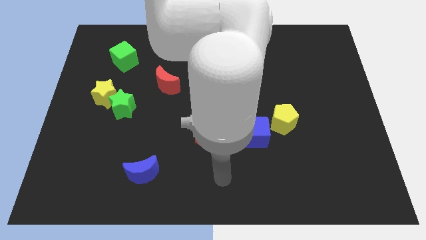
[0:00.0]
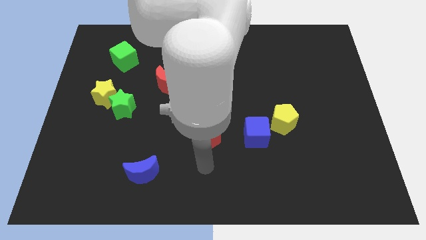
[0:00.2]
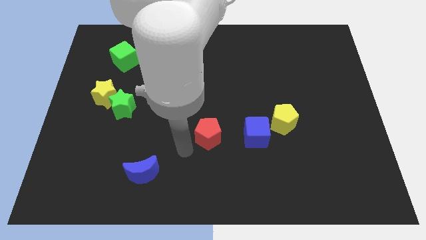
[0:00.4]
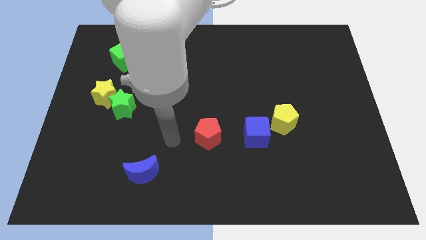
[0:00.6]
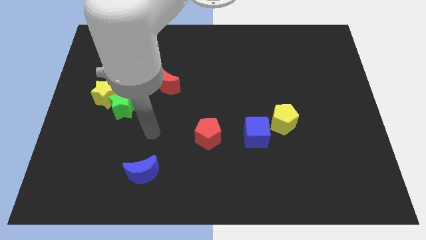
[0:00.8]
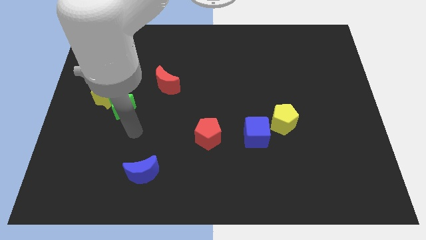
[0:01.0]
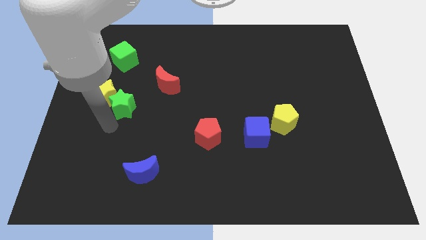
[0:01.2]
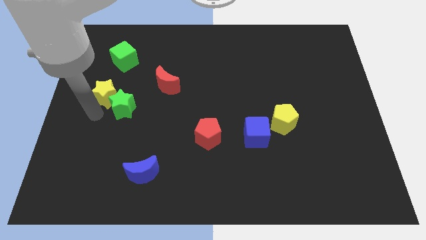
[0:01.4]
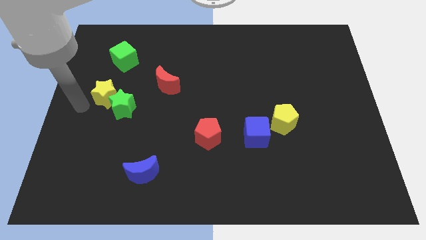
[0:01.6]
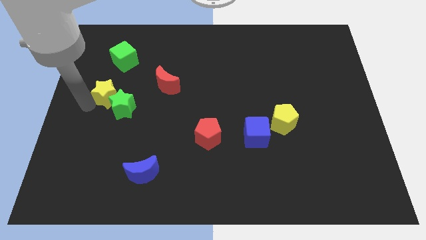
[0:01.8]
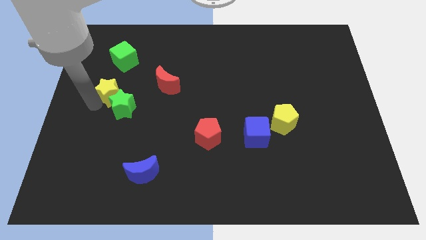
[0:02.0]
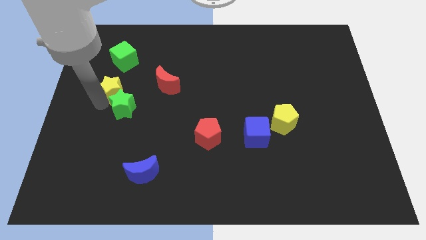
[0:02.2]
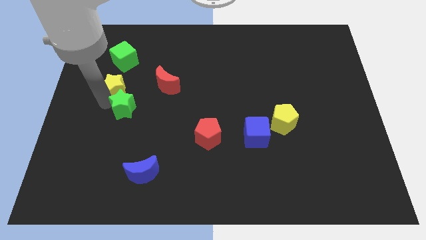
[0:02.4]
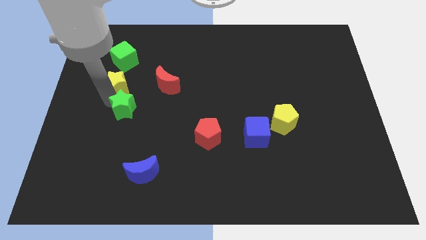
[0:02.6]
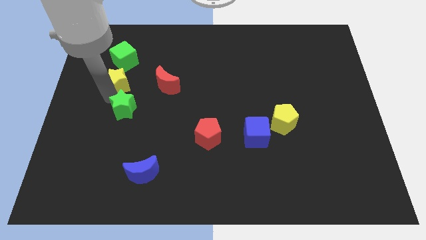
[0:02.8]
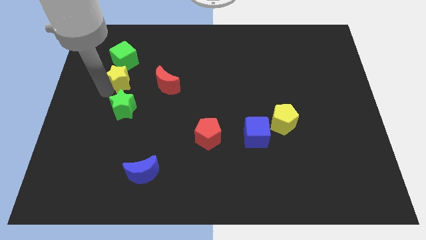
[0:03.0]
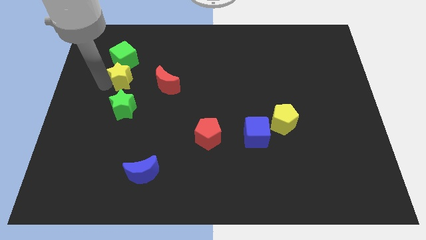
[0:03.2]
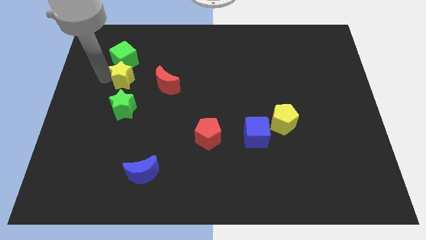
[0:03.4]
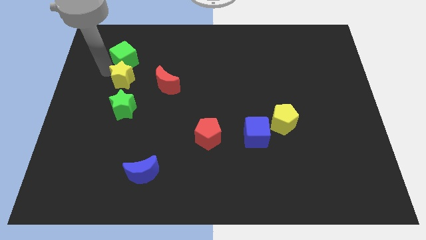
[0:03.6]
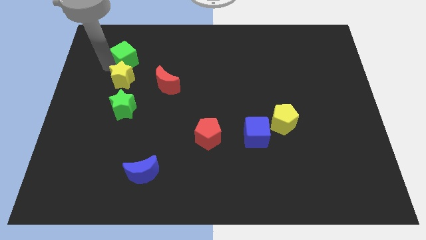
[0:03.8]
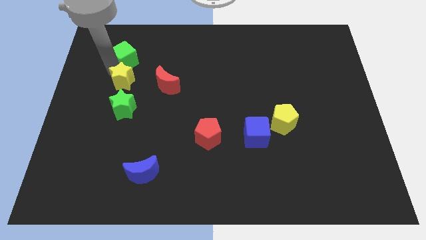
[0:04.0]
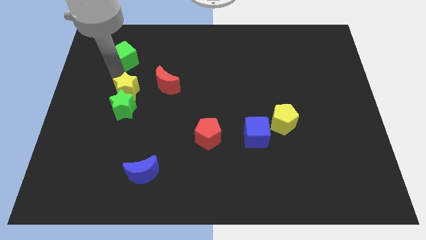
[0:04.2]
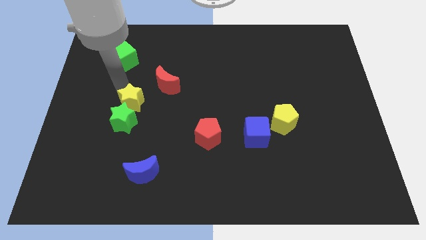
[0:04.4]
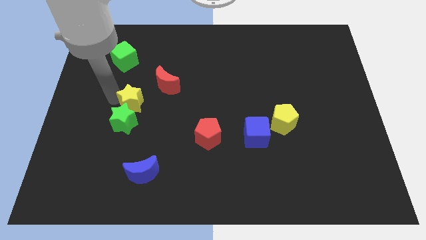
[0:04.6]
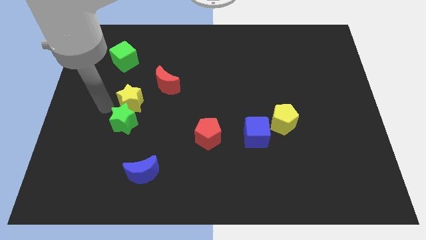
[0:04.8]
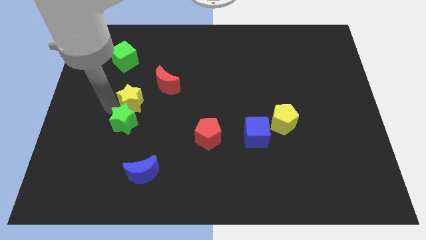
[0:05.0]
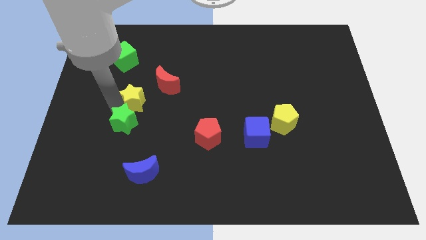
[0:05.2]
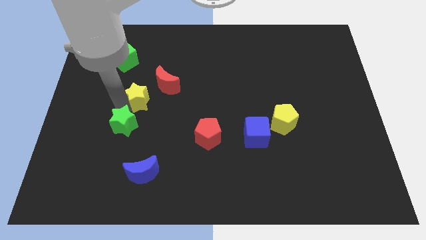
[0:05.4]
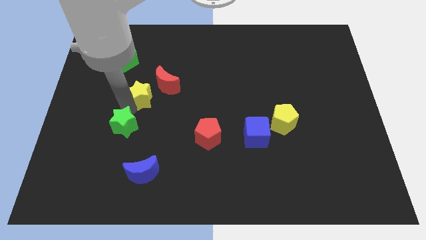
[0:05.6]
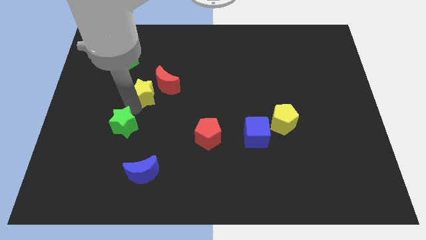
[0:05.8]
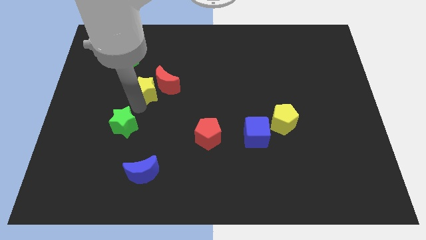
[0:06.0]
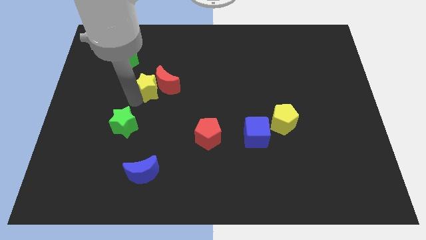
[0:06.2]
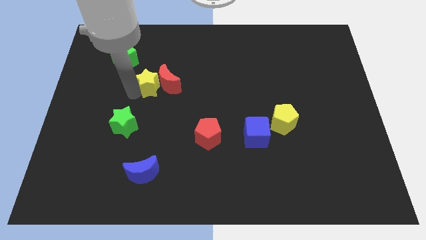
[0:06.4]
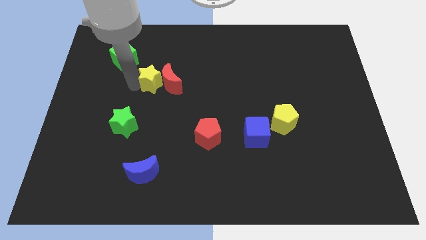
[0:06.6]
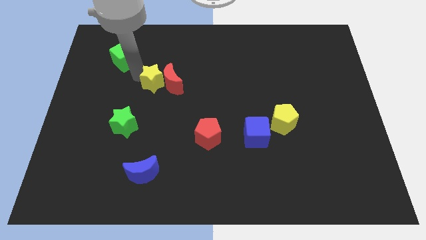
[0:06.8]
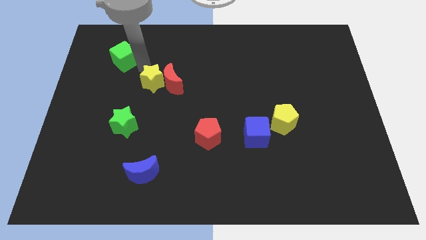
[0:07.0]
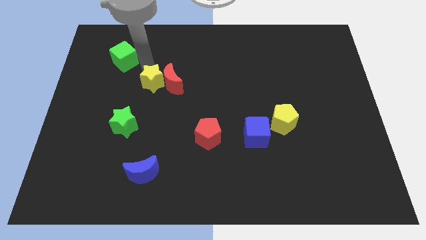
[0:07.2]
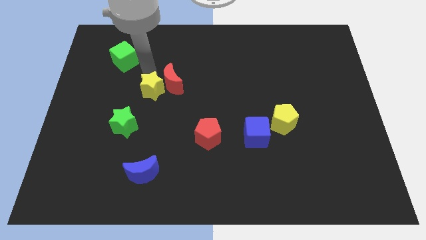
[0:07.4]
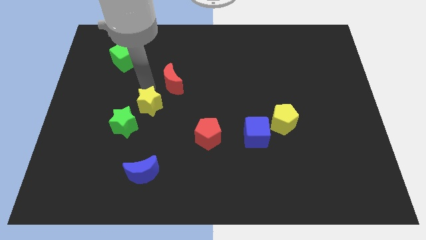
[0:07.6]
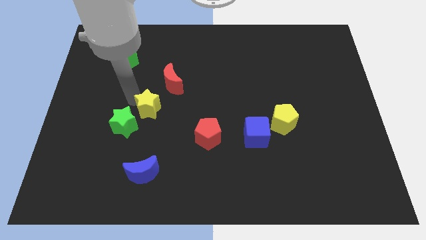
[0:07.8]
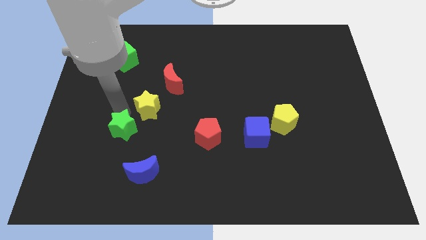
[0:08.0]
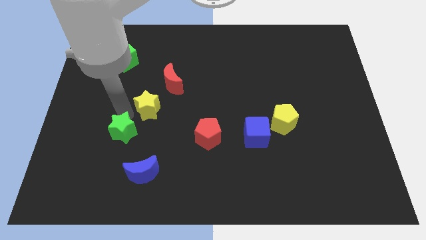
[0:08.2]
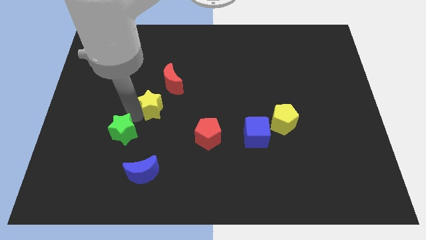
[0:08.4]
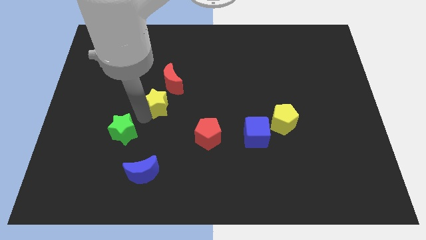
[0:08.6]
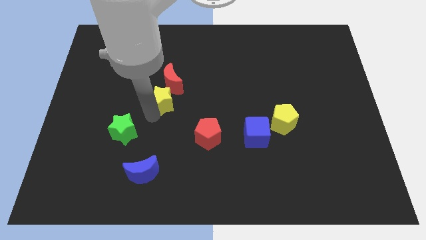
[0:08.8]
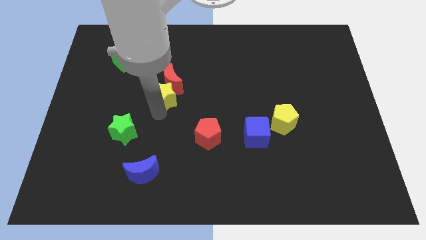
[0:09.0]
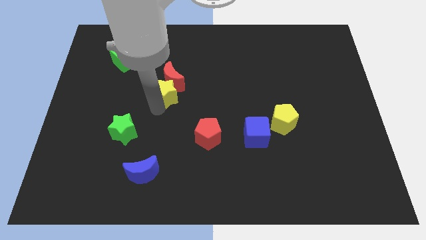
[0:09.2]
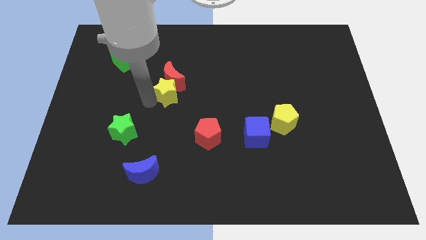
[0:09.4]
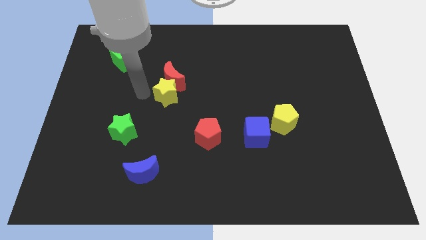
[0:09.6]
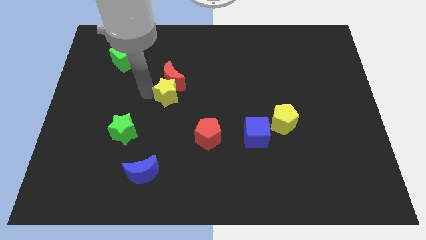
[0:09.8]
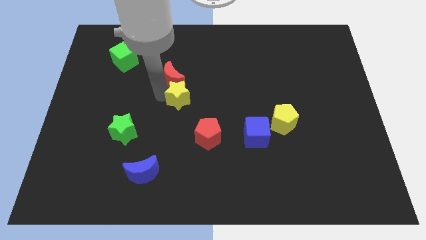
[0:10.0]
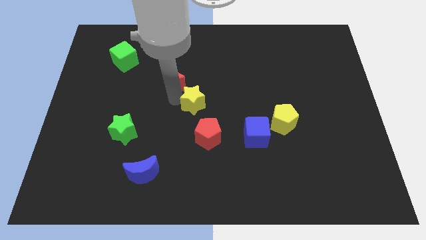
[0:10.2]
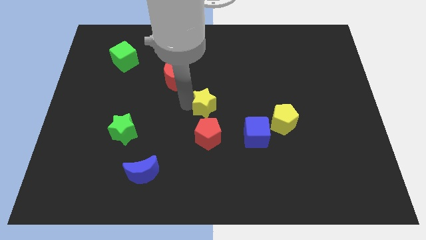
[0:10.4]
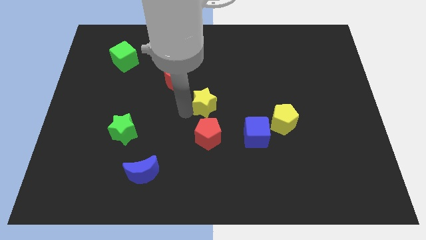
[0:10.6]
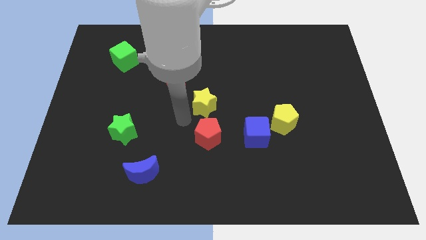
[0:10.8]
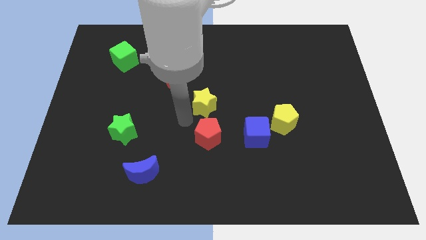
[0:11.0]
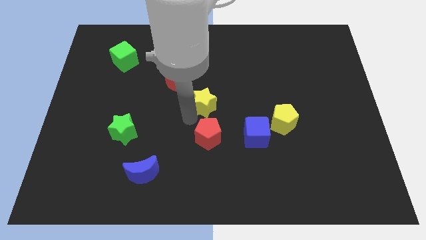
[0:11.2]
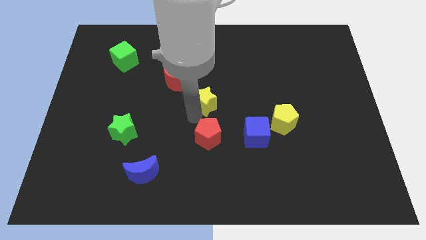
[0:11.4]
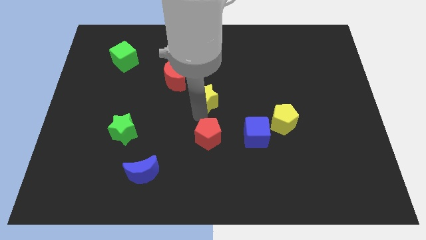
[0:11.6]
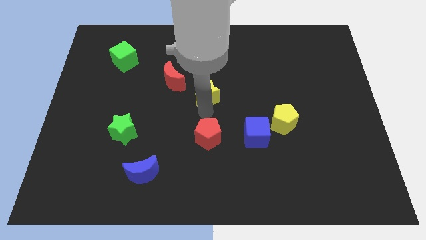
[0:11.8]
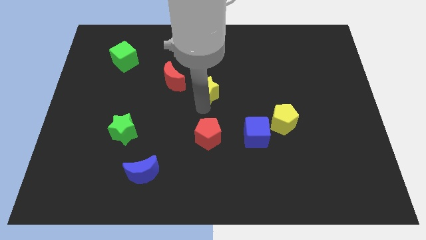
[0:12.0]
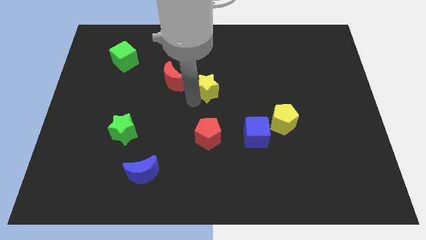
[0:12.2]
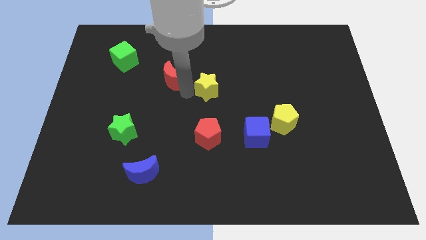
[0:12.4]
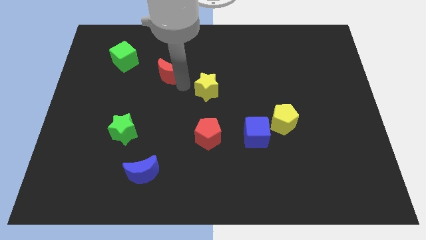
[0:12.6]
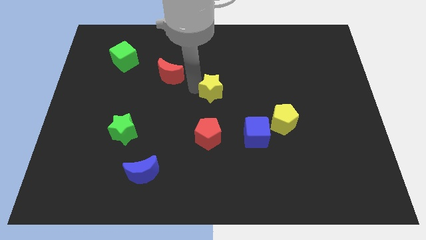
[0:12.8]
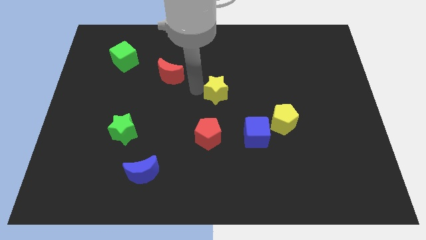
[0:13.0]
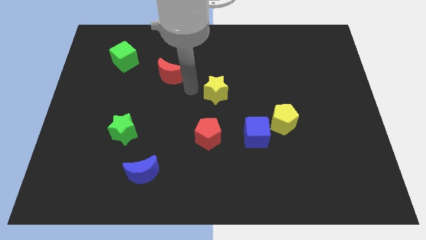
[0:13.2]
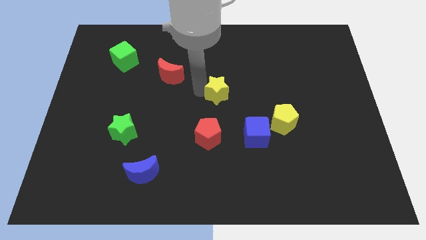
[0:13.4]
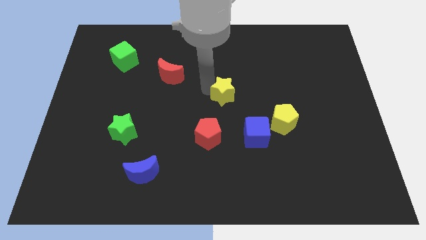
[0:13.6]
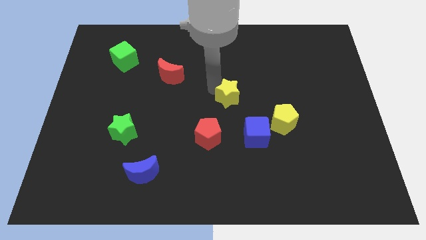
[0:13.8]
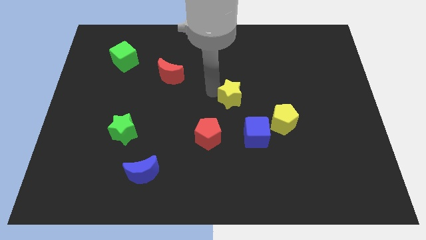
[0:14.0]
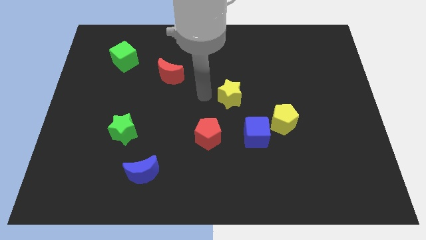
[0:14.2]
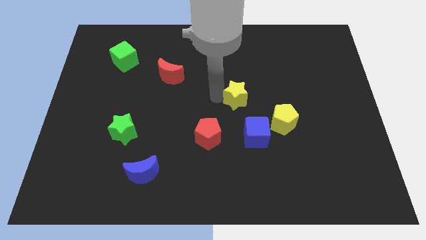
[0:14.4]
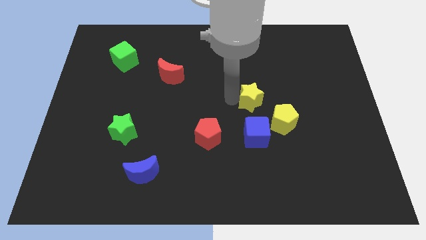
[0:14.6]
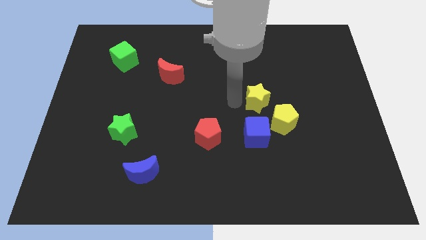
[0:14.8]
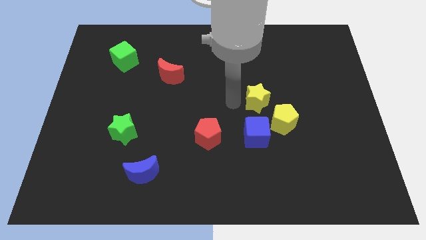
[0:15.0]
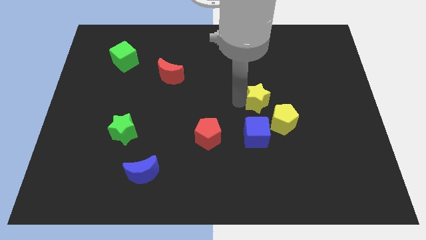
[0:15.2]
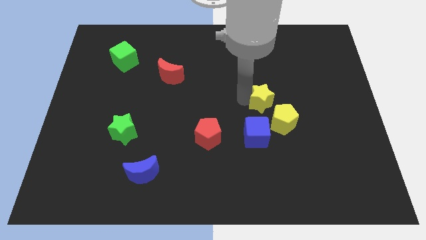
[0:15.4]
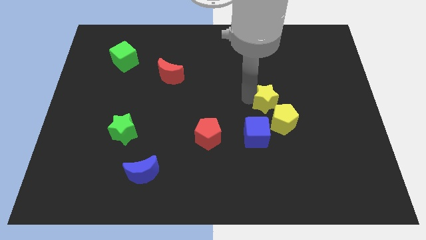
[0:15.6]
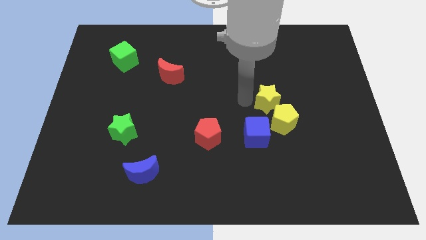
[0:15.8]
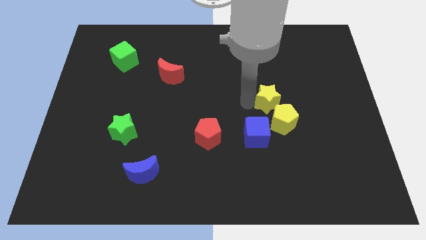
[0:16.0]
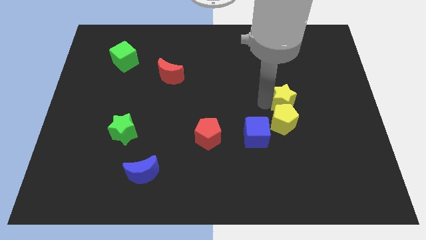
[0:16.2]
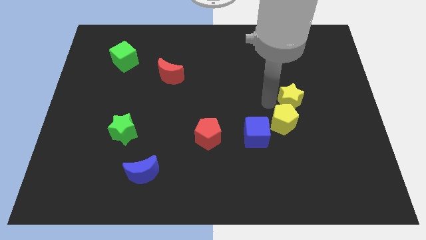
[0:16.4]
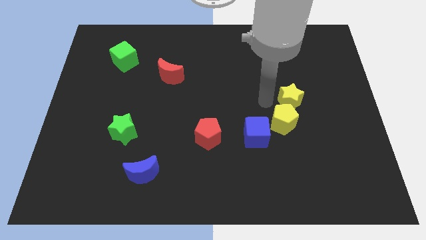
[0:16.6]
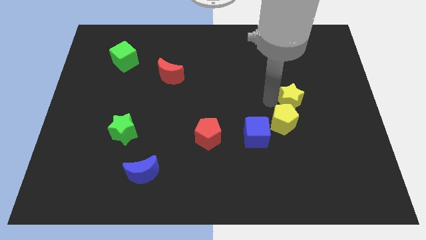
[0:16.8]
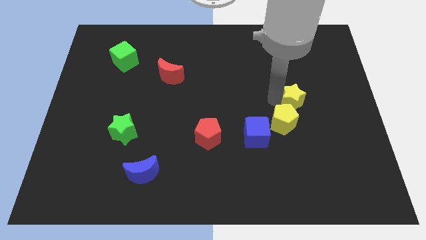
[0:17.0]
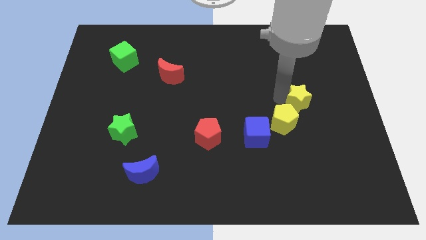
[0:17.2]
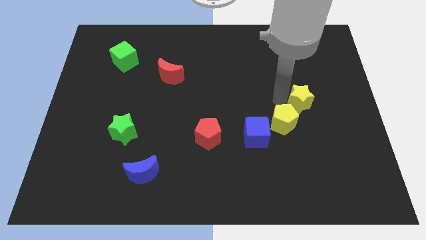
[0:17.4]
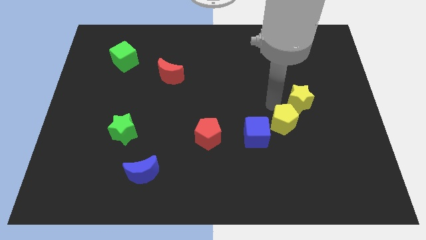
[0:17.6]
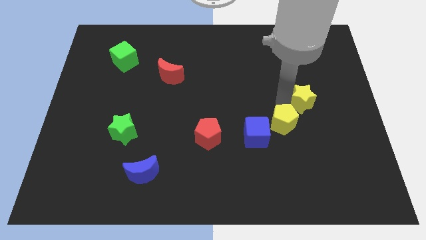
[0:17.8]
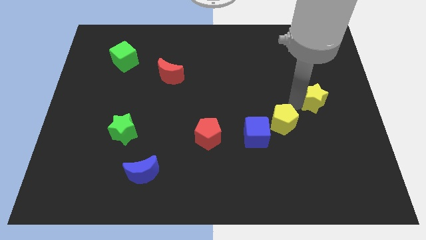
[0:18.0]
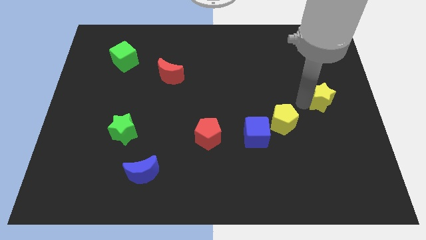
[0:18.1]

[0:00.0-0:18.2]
put the yellow star to the right side
